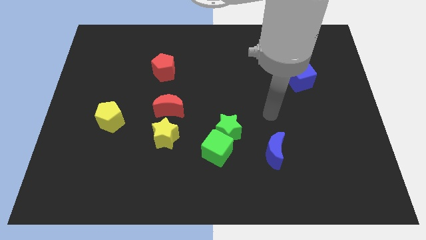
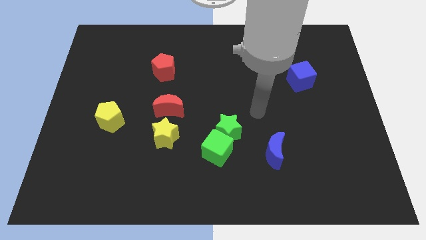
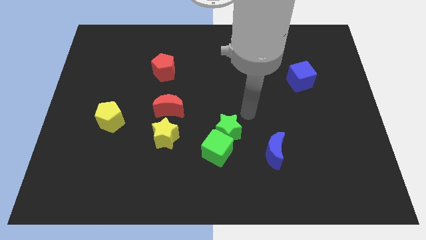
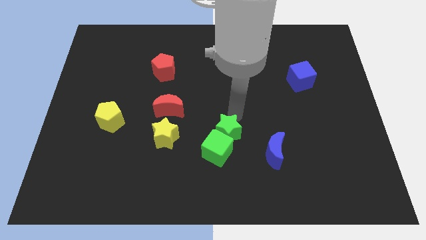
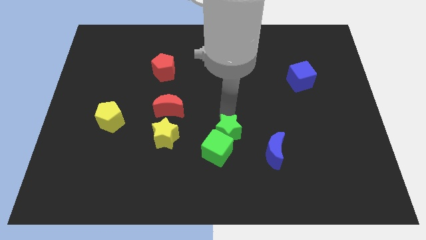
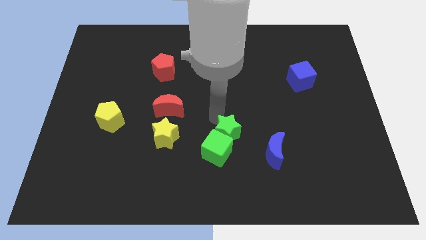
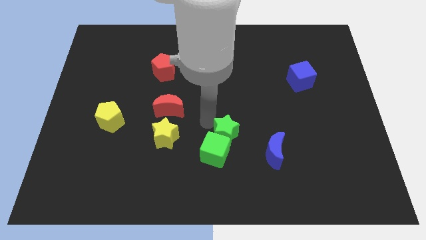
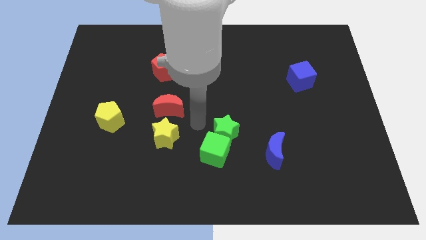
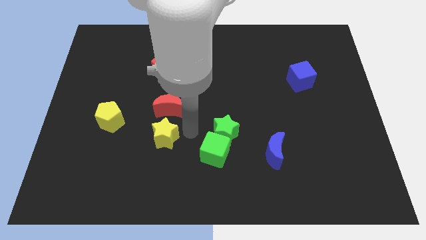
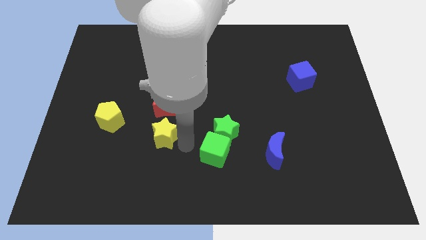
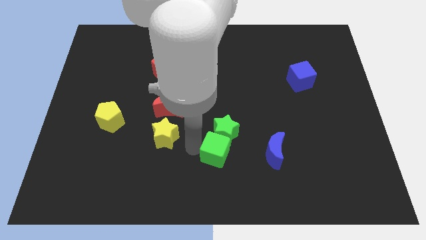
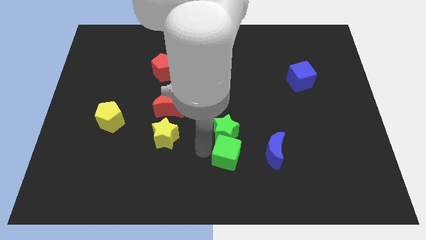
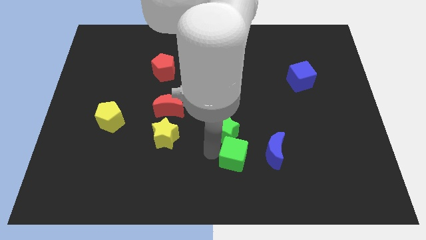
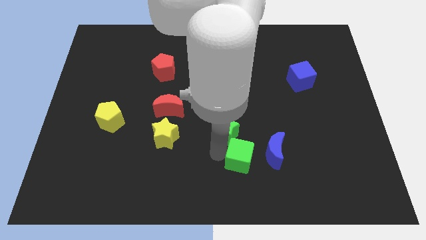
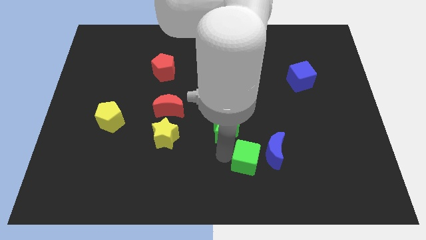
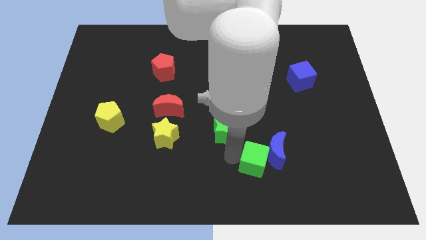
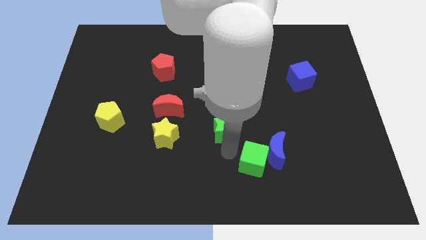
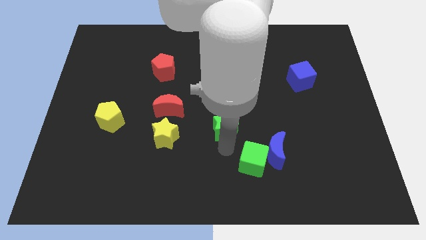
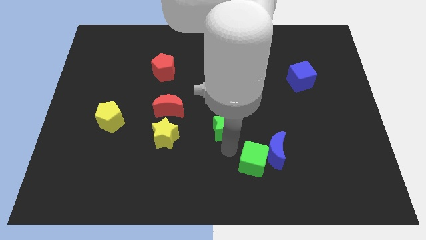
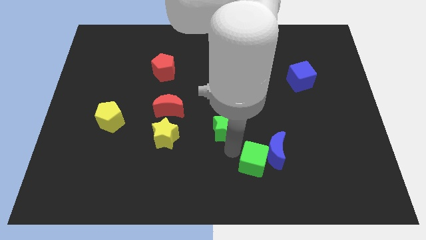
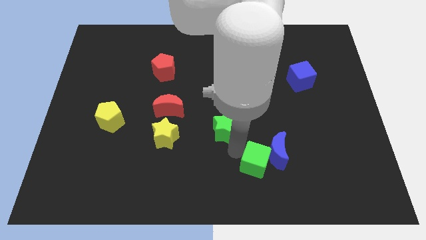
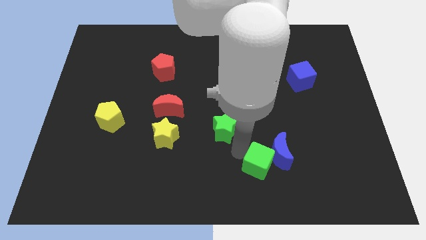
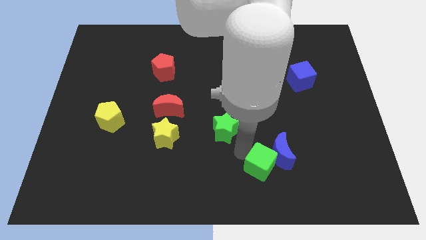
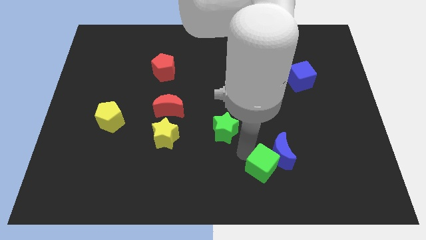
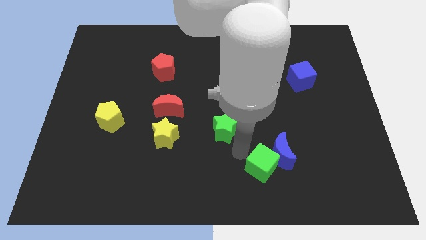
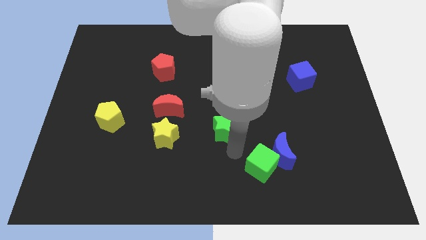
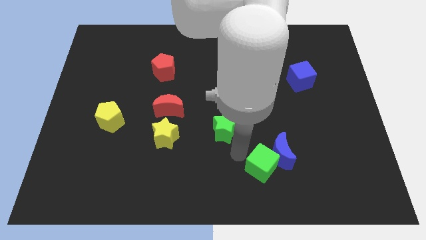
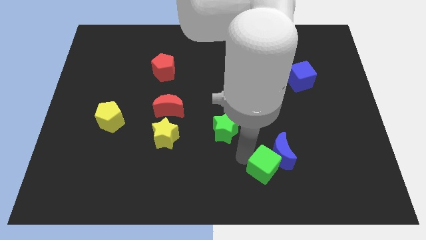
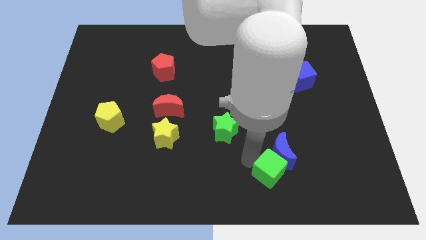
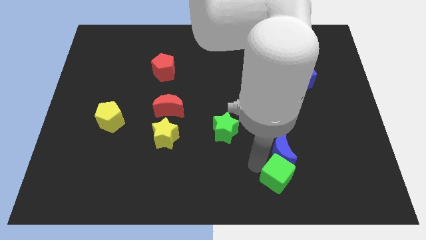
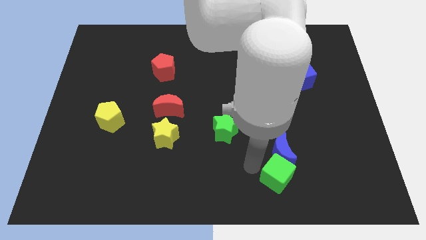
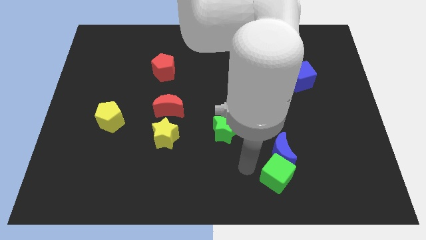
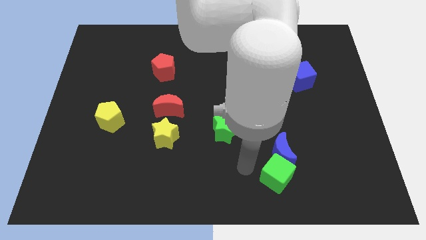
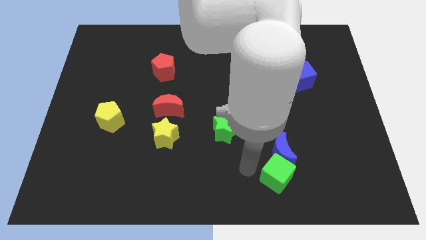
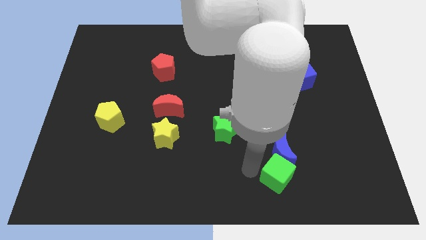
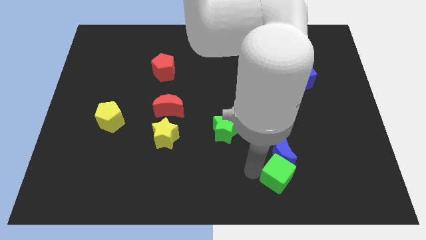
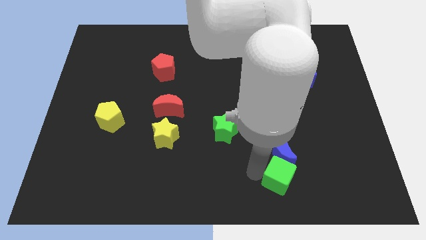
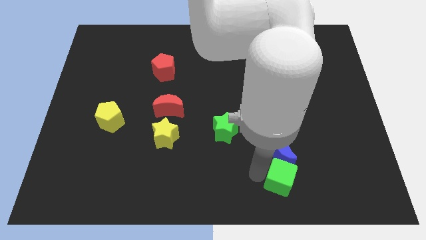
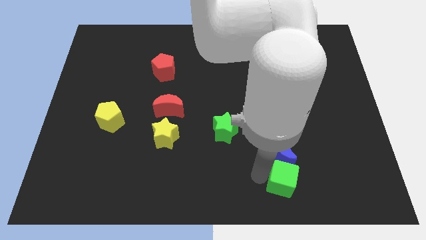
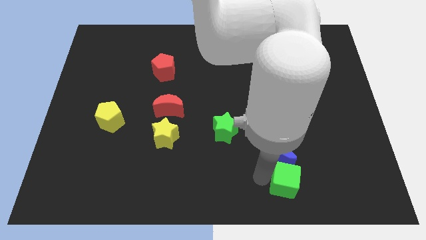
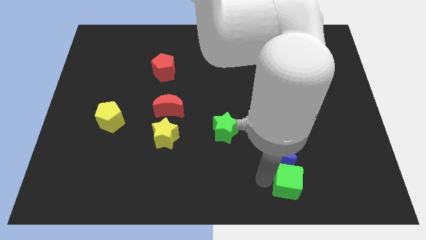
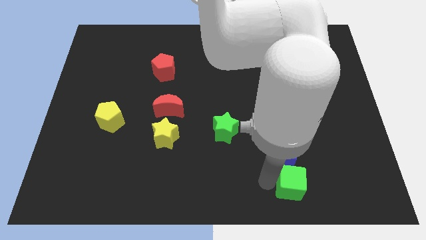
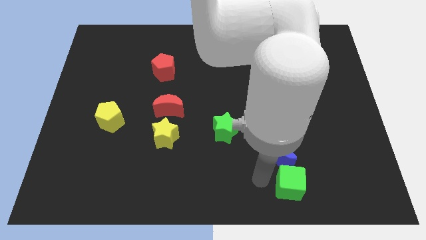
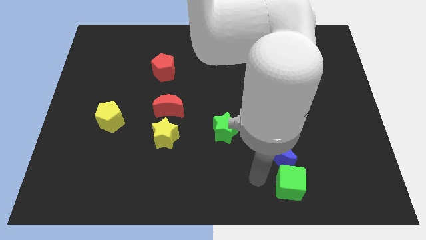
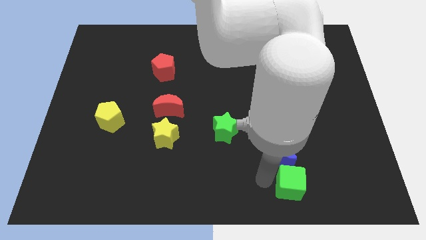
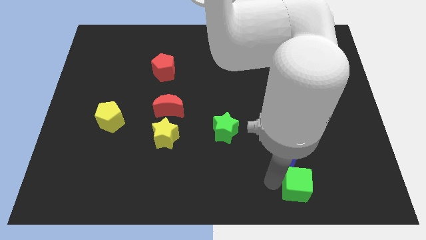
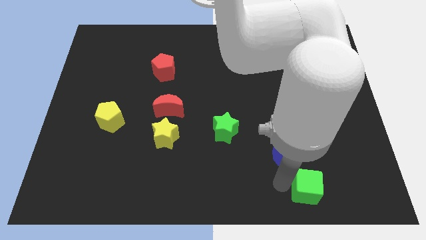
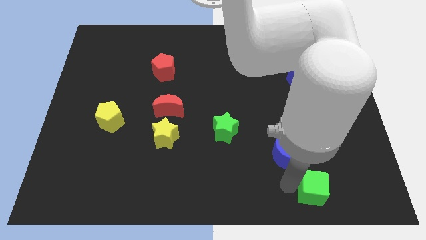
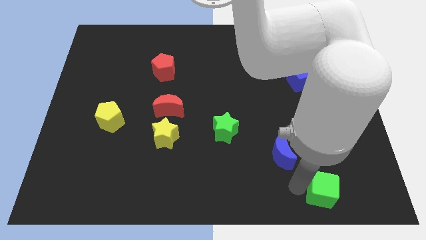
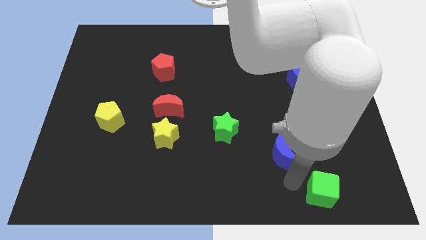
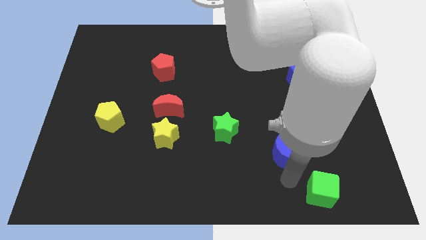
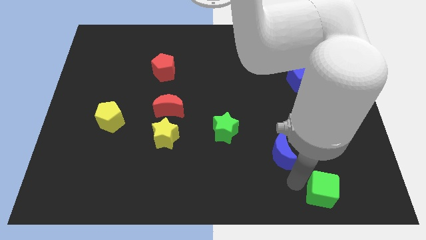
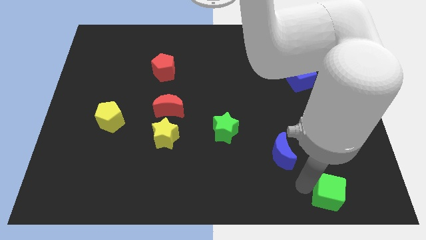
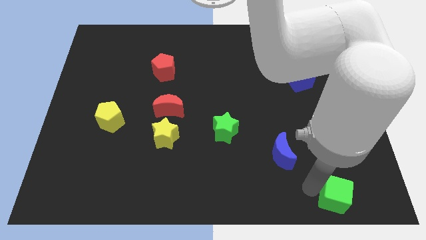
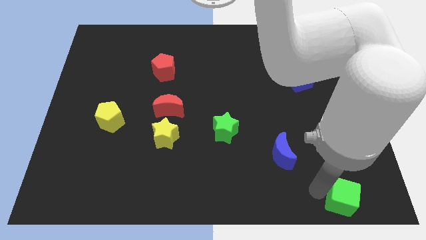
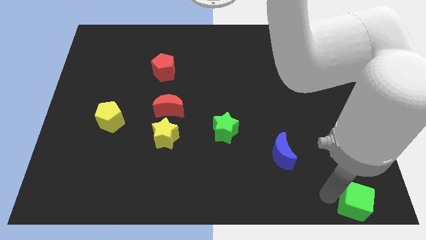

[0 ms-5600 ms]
put the green cube to the lower right corner

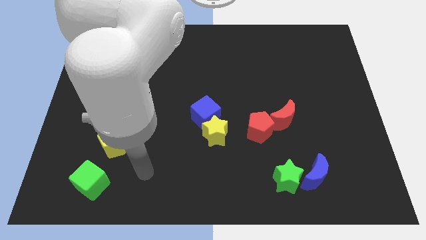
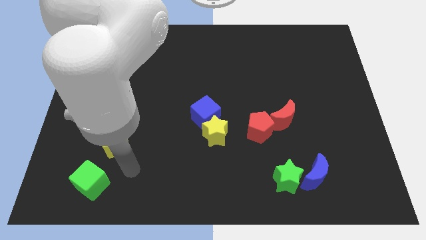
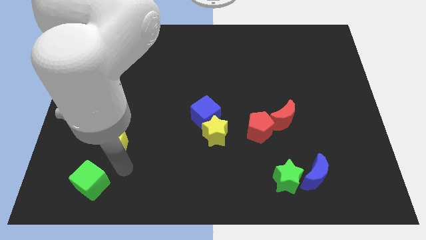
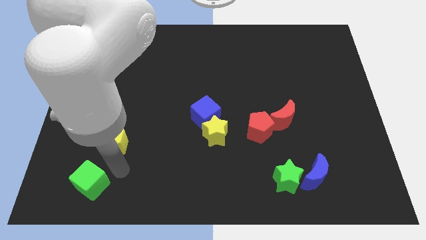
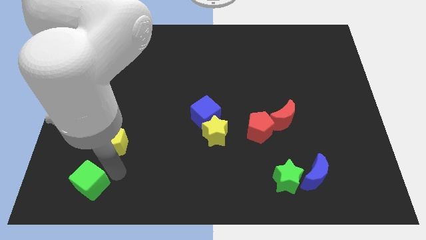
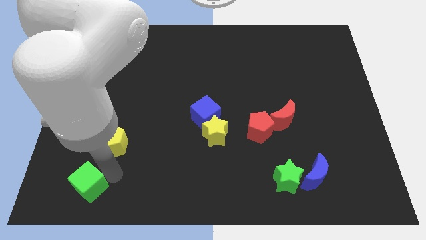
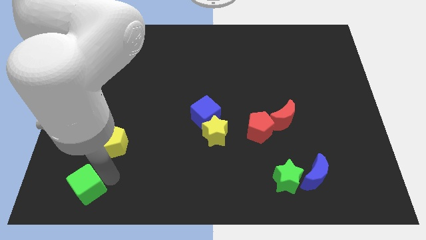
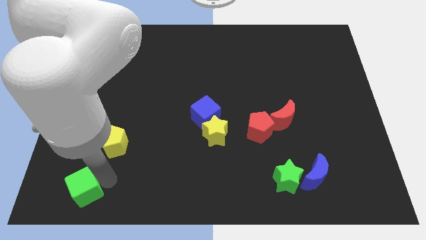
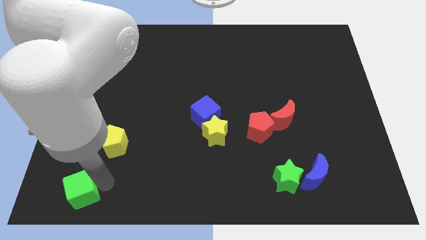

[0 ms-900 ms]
slide the green cube to the bottom left corner

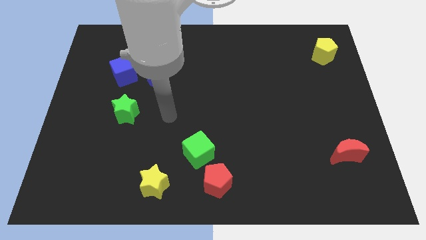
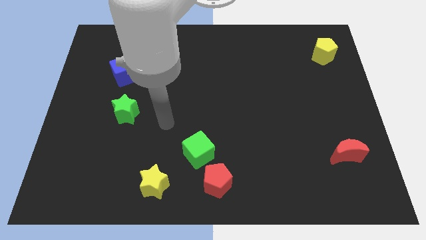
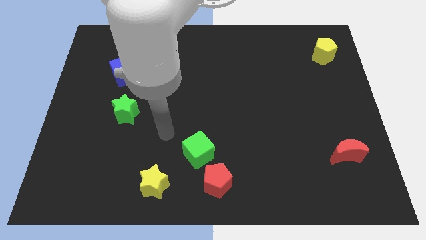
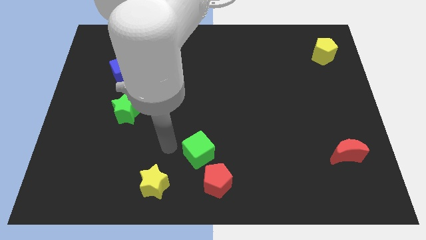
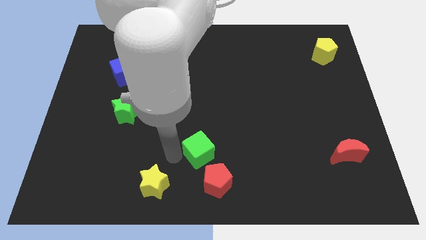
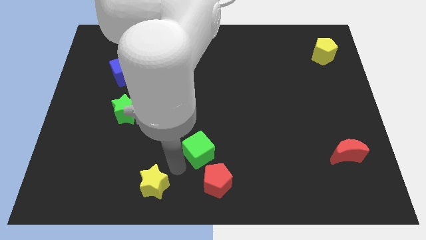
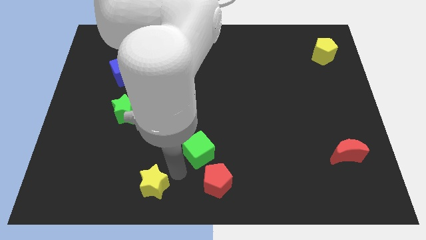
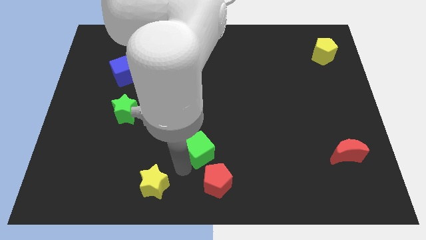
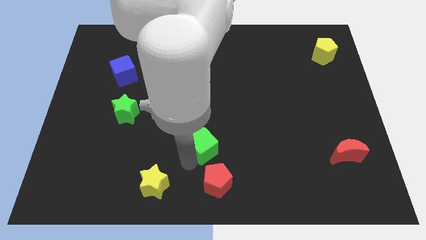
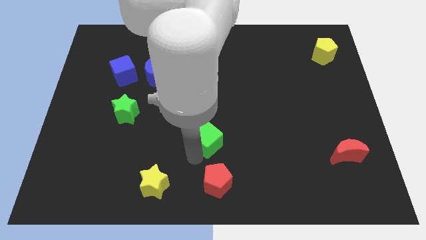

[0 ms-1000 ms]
move the green cube to the middle of the board

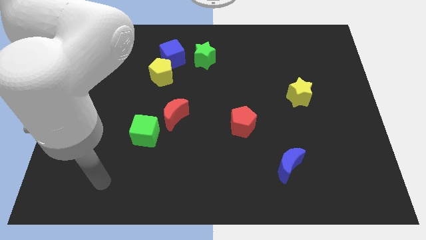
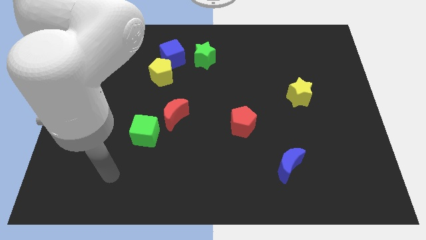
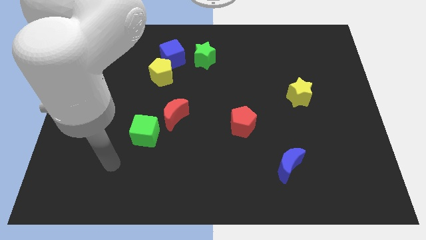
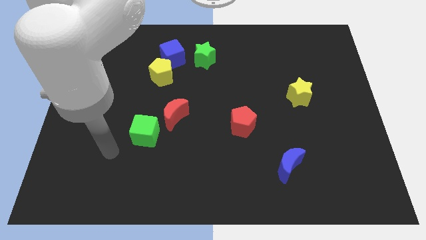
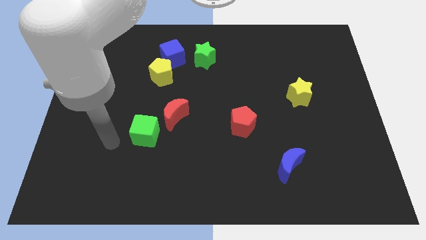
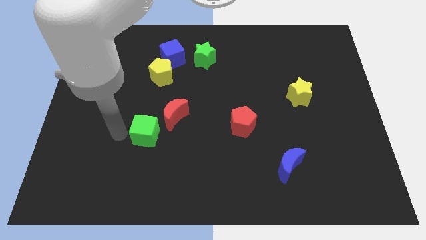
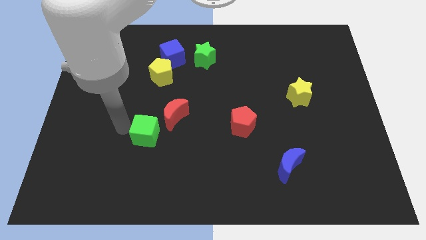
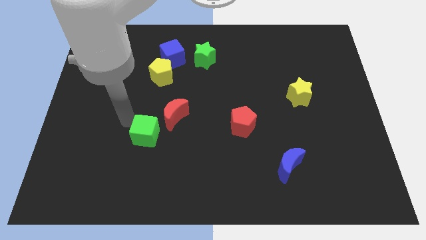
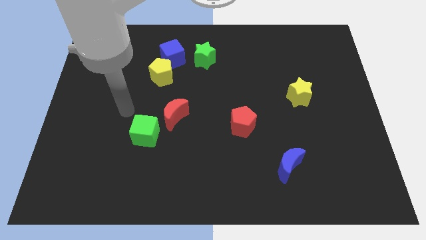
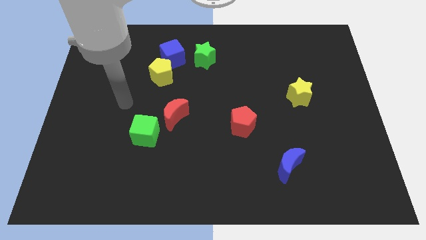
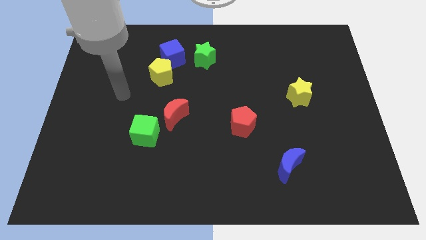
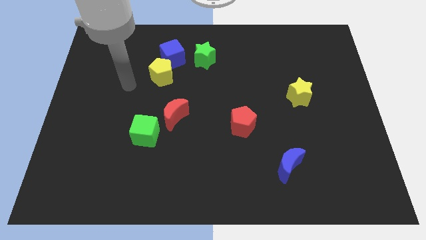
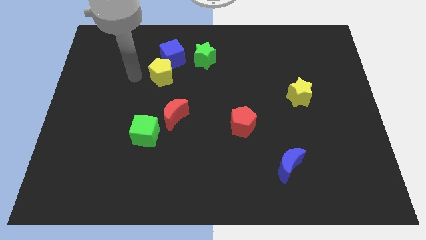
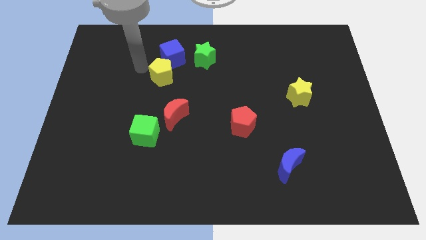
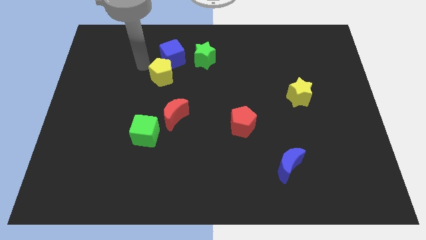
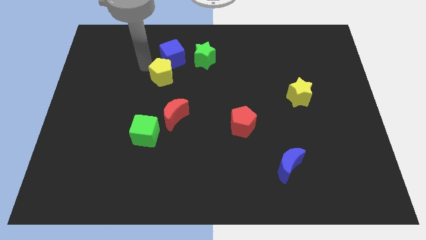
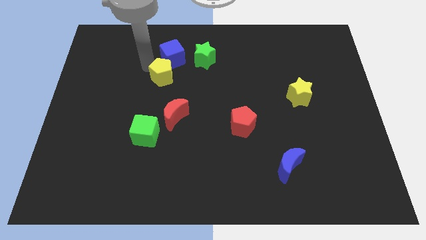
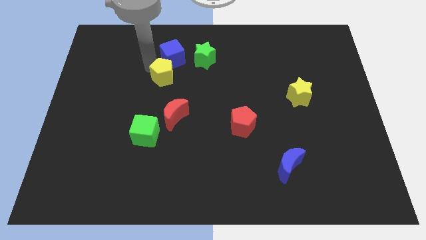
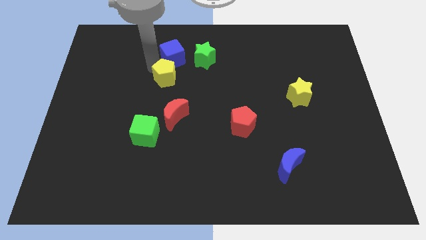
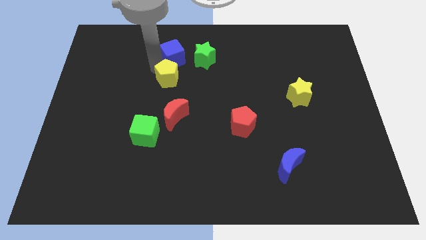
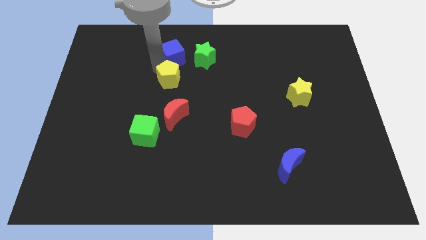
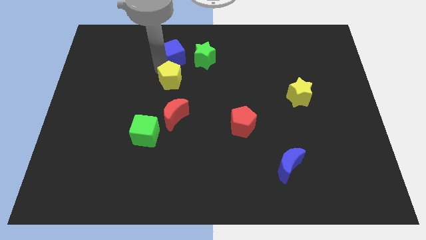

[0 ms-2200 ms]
move the yellow pentagon to the middle of the board
